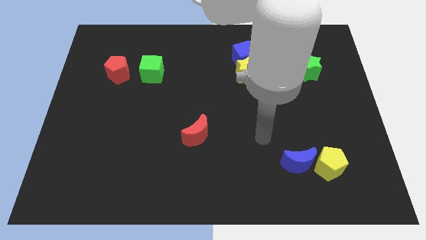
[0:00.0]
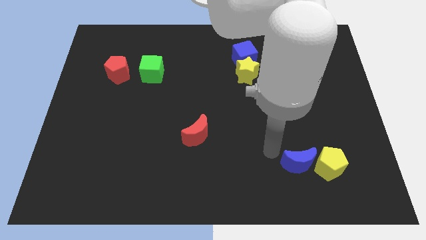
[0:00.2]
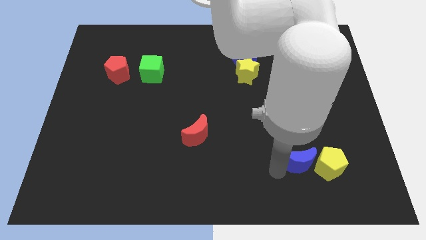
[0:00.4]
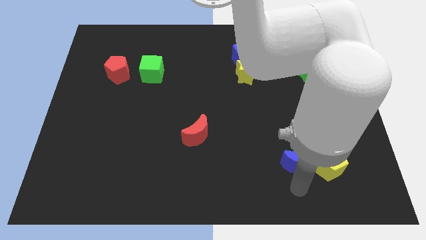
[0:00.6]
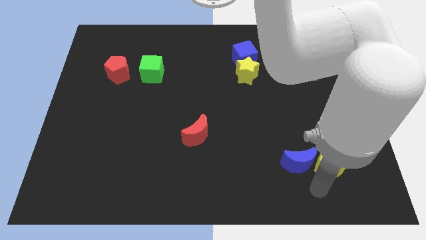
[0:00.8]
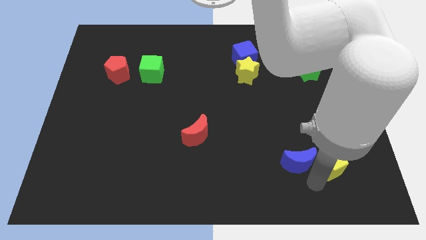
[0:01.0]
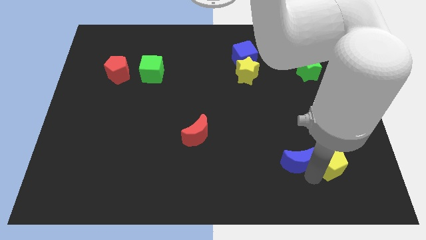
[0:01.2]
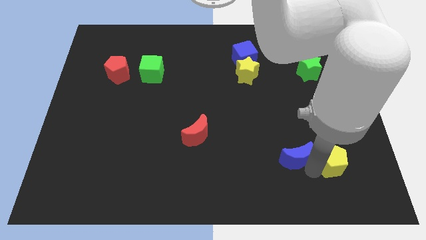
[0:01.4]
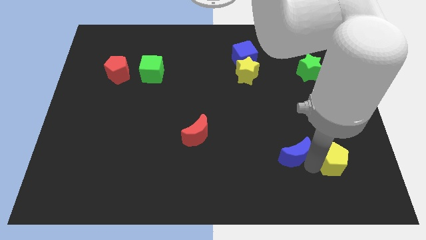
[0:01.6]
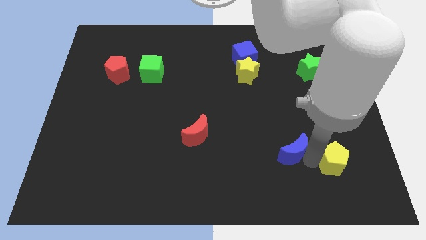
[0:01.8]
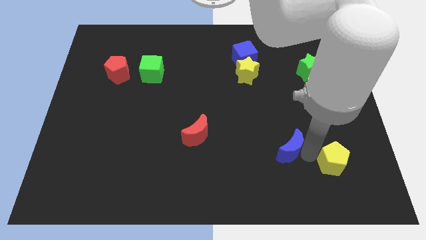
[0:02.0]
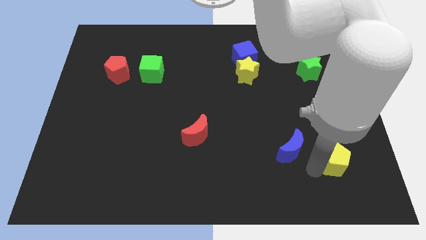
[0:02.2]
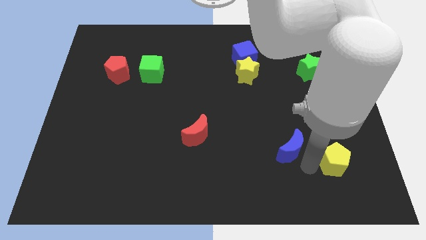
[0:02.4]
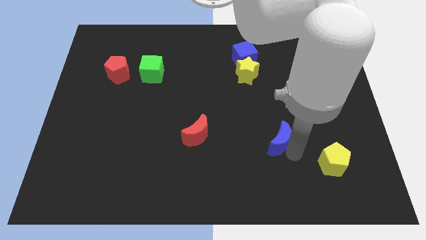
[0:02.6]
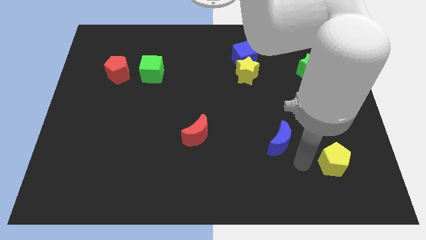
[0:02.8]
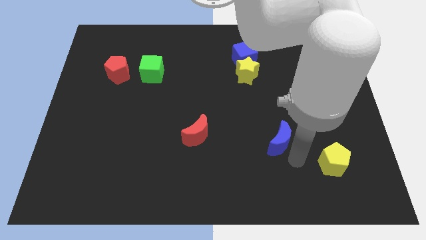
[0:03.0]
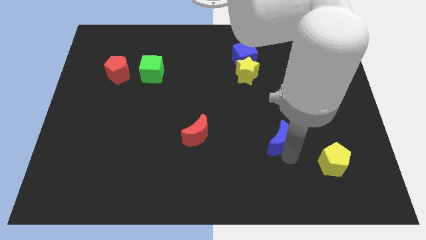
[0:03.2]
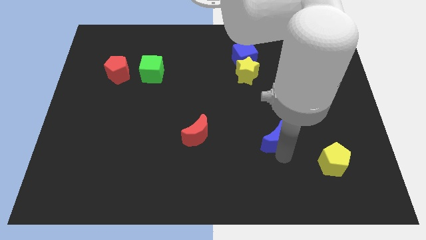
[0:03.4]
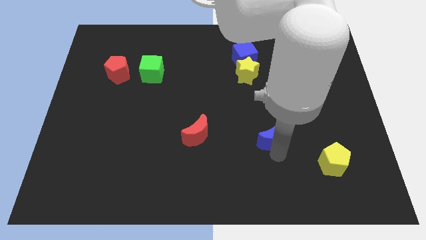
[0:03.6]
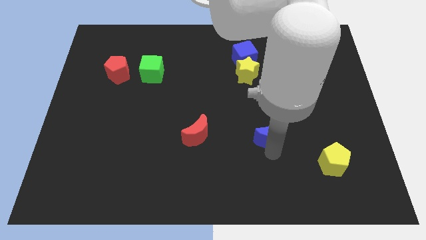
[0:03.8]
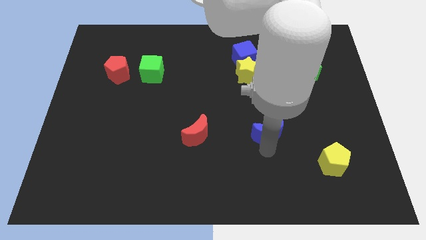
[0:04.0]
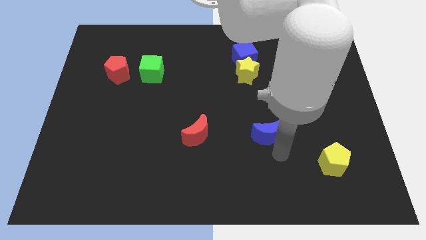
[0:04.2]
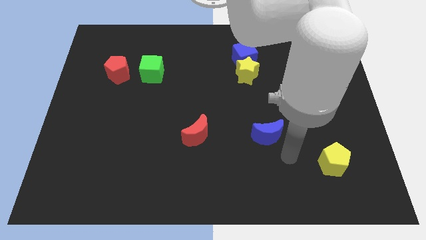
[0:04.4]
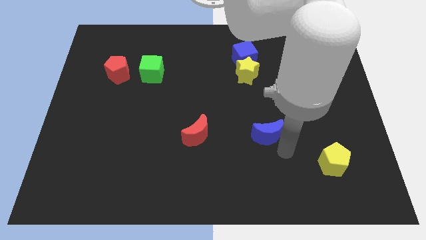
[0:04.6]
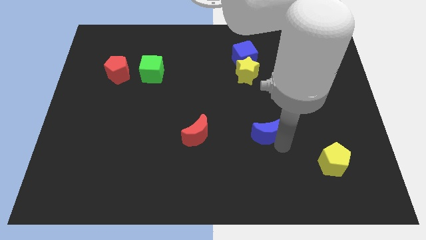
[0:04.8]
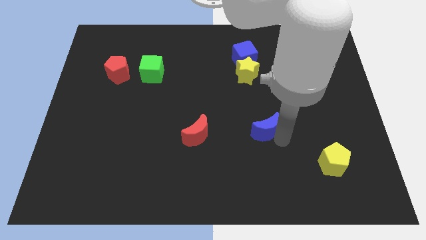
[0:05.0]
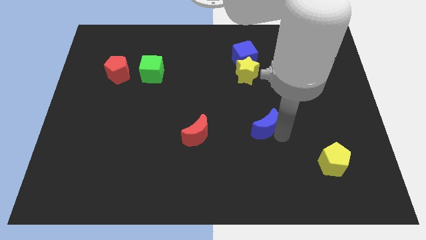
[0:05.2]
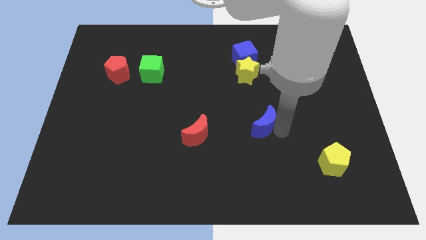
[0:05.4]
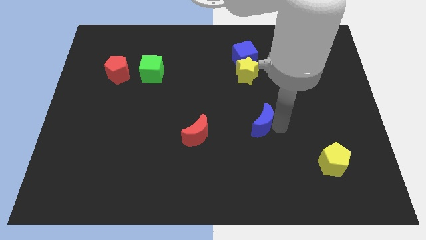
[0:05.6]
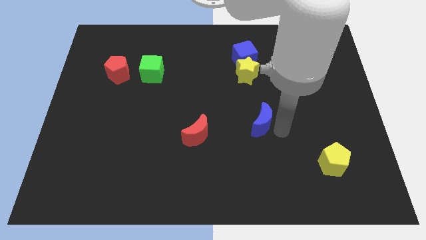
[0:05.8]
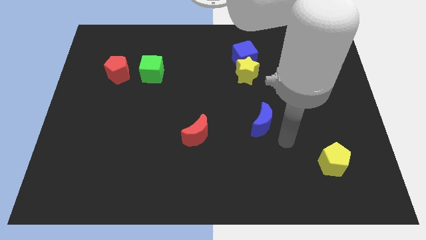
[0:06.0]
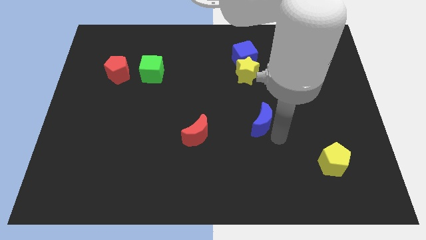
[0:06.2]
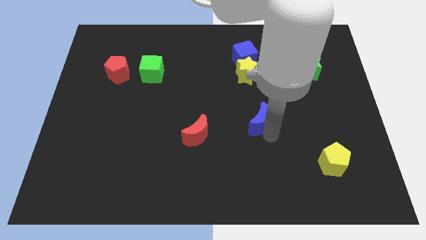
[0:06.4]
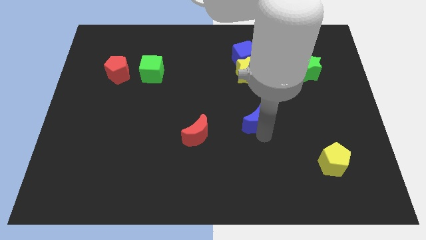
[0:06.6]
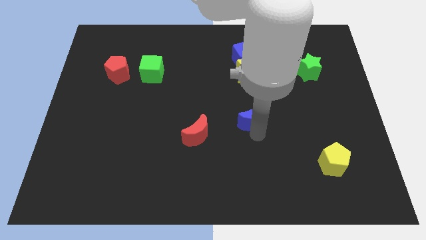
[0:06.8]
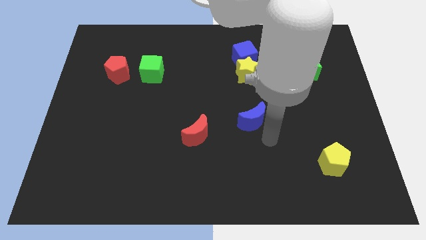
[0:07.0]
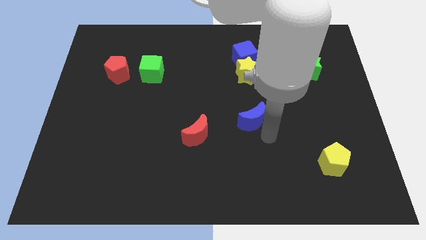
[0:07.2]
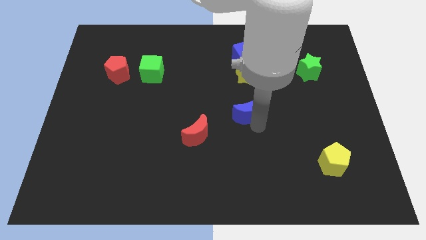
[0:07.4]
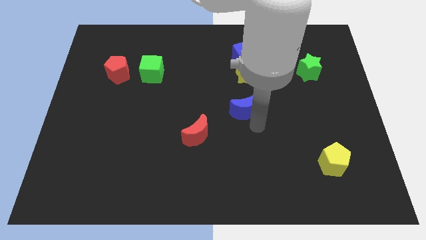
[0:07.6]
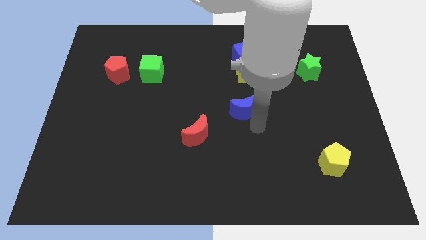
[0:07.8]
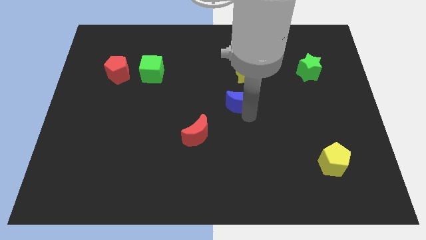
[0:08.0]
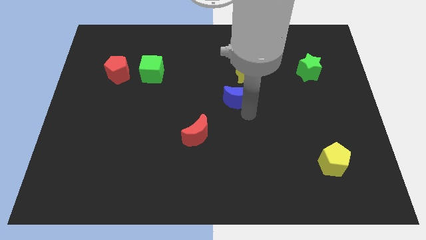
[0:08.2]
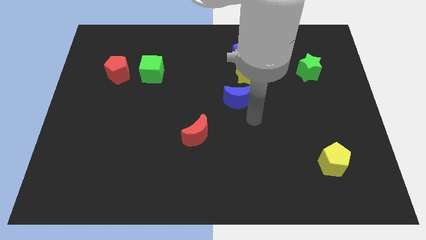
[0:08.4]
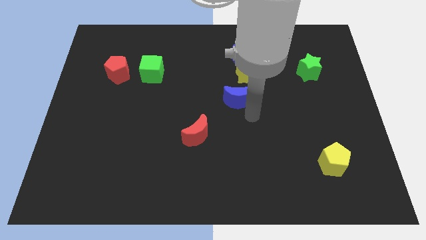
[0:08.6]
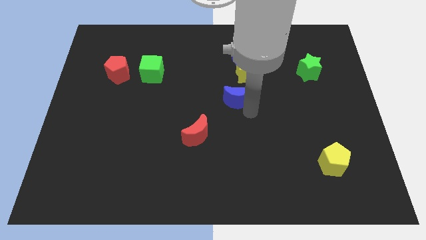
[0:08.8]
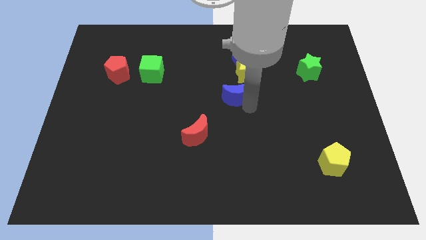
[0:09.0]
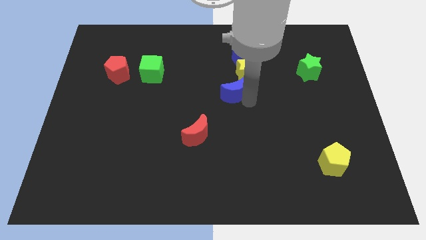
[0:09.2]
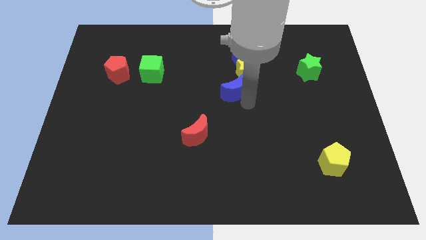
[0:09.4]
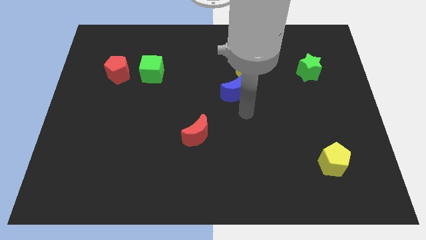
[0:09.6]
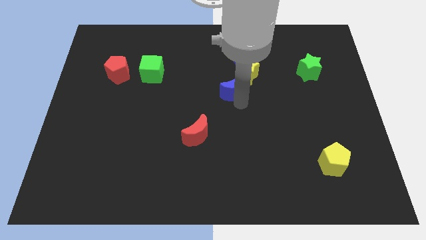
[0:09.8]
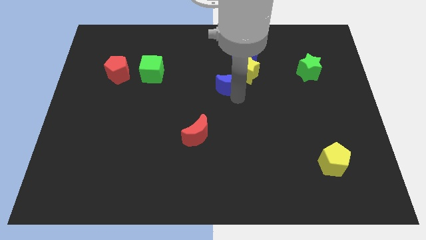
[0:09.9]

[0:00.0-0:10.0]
put the blue moon diagonally down and to the left of the blue cube

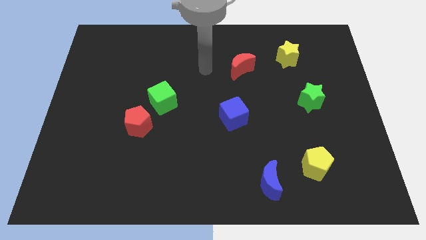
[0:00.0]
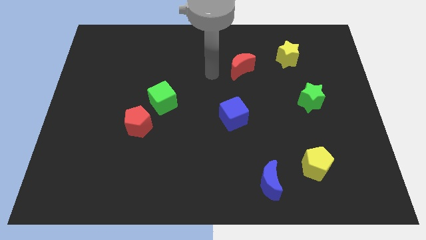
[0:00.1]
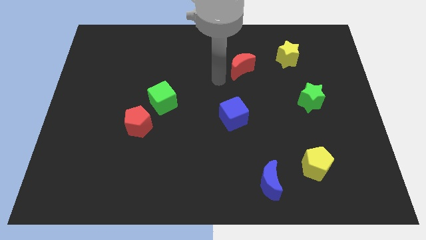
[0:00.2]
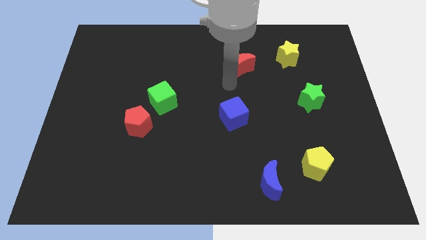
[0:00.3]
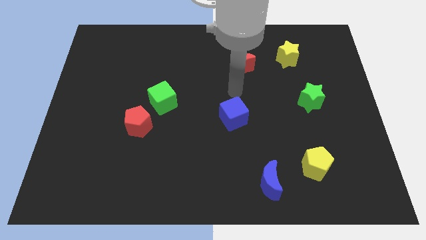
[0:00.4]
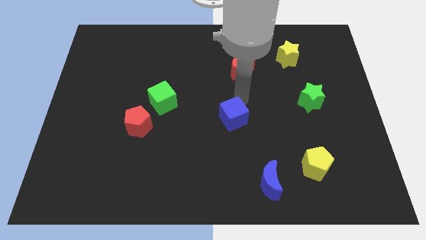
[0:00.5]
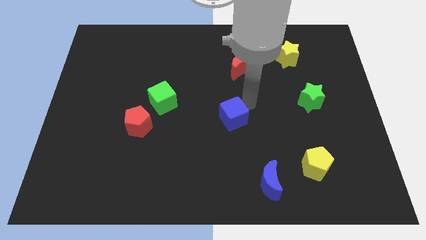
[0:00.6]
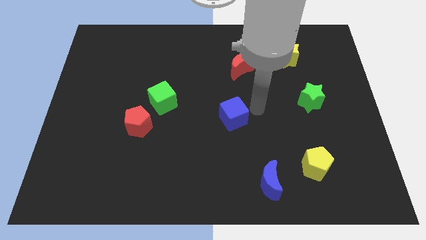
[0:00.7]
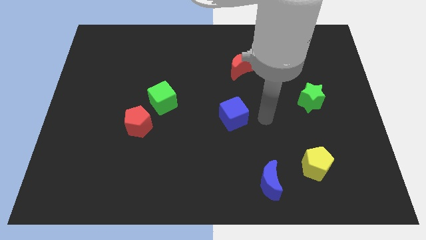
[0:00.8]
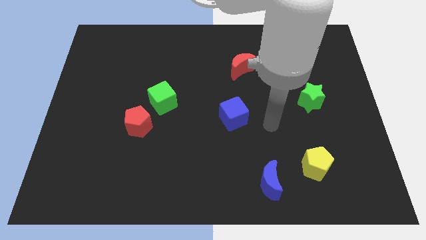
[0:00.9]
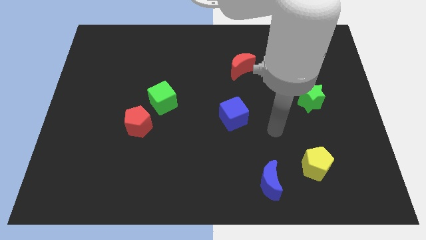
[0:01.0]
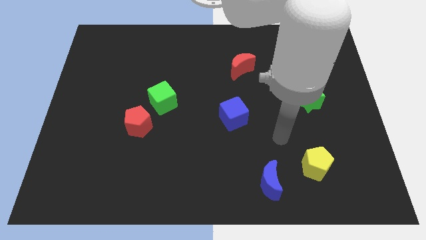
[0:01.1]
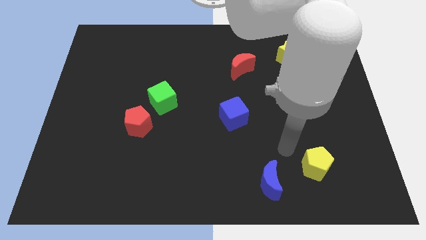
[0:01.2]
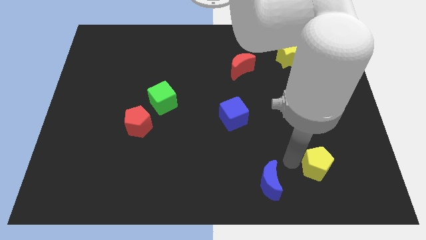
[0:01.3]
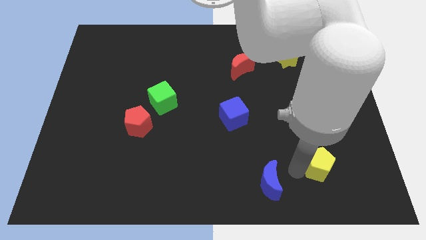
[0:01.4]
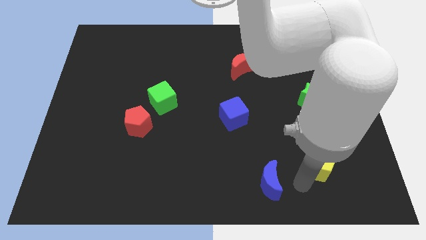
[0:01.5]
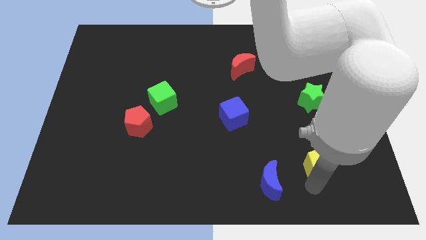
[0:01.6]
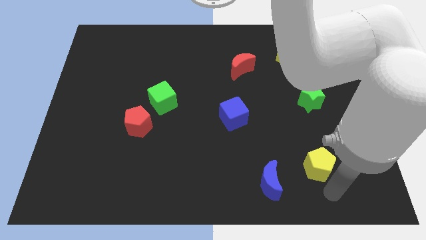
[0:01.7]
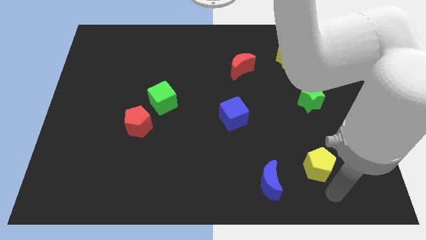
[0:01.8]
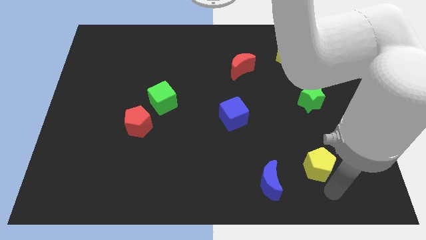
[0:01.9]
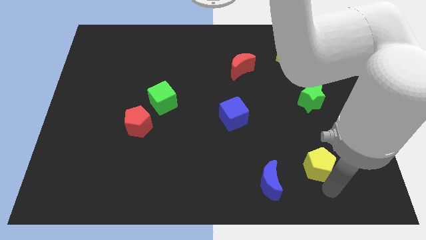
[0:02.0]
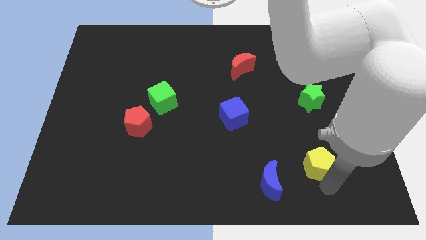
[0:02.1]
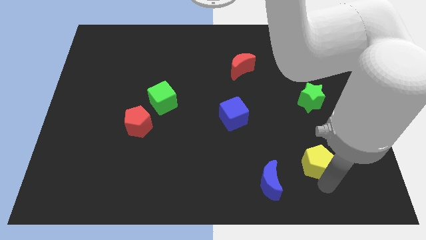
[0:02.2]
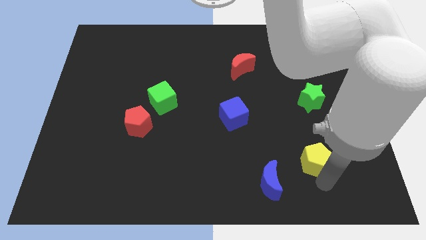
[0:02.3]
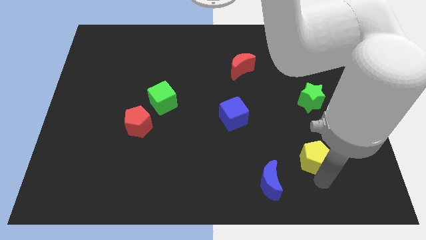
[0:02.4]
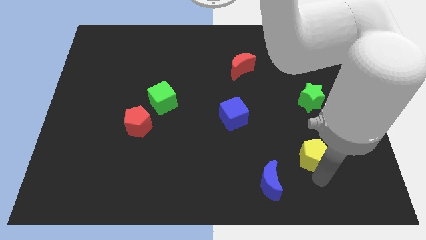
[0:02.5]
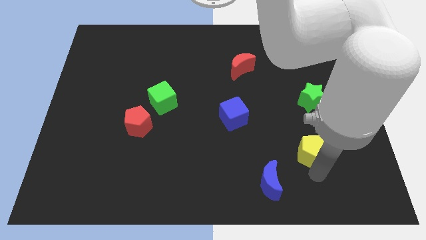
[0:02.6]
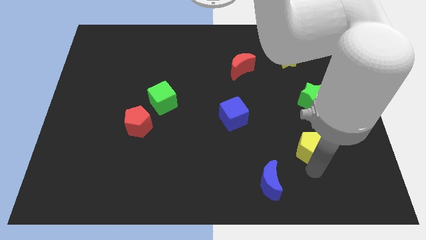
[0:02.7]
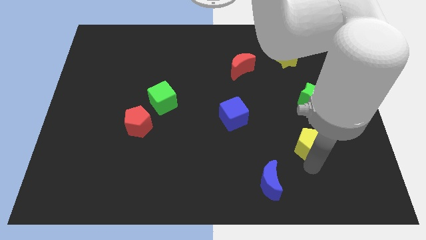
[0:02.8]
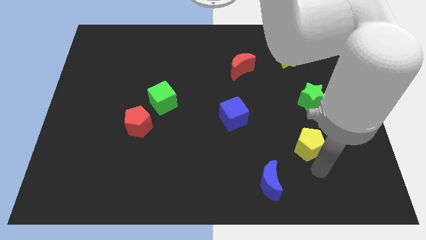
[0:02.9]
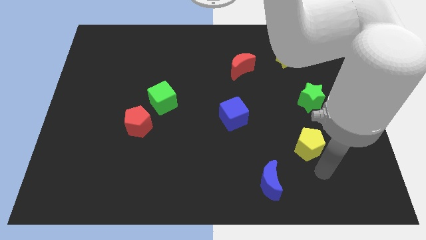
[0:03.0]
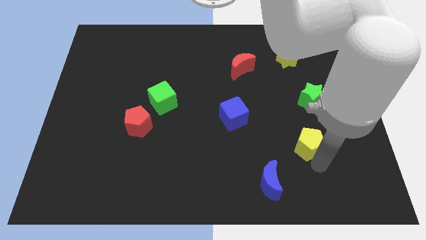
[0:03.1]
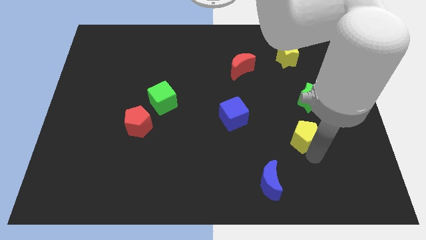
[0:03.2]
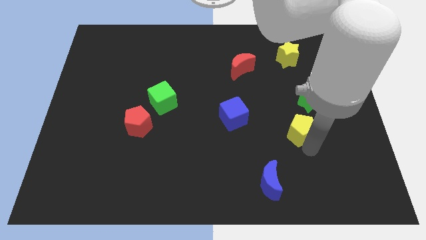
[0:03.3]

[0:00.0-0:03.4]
move the yellow pentagon to the bottom left side of the green star
